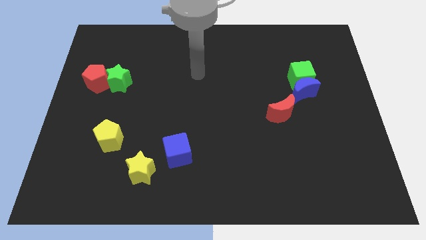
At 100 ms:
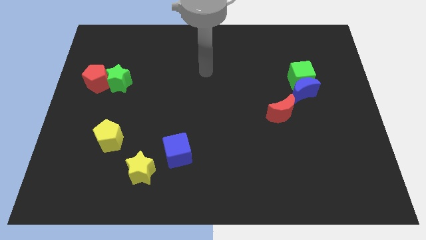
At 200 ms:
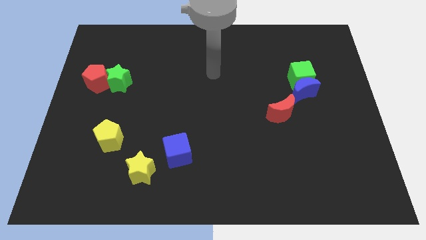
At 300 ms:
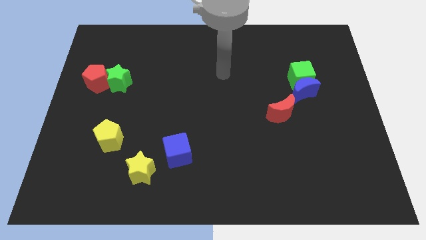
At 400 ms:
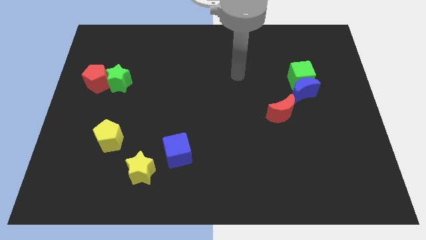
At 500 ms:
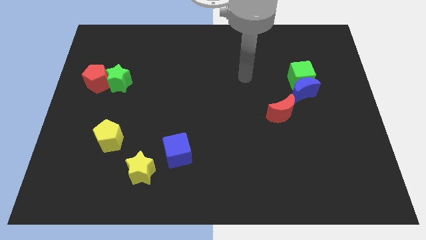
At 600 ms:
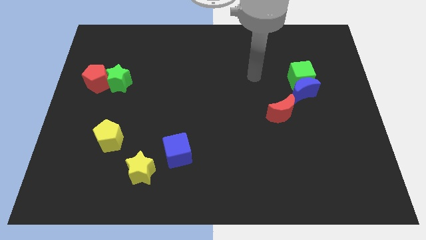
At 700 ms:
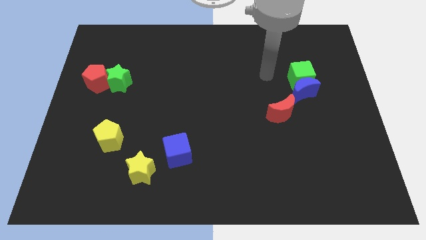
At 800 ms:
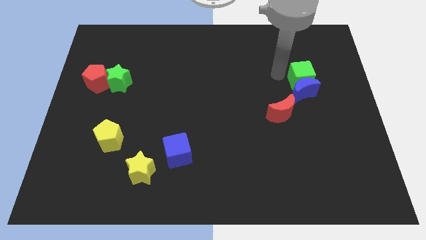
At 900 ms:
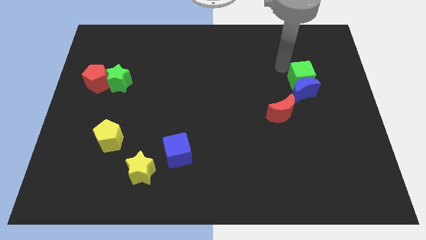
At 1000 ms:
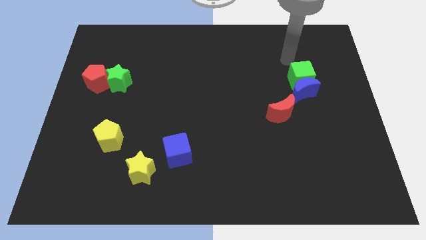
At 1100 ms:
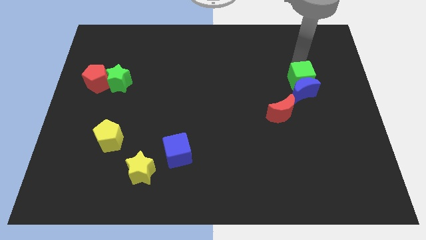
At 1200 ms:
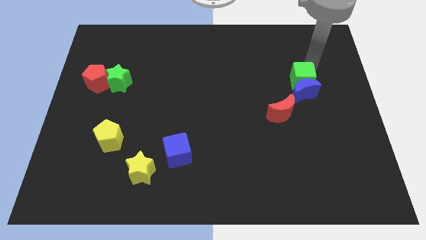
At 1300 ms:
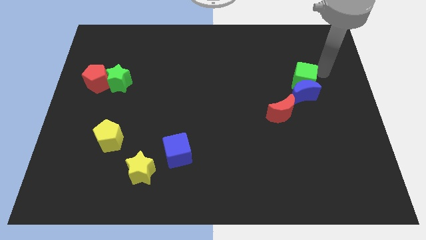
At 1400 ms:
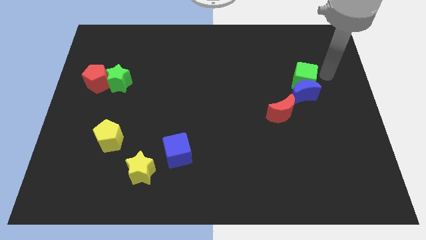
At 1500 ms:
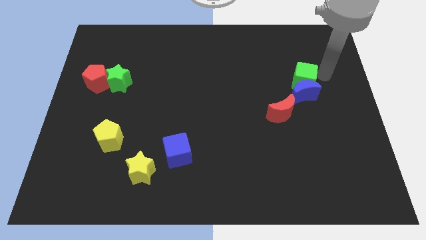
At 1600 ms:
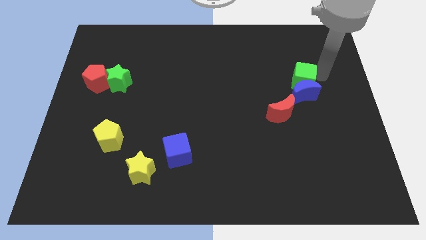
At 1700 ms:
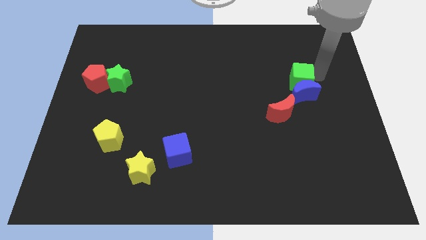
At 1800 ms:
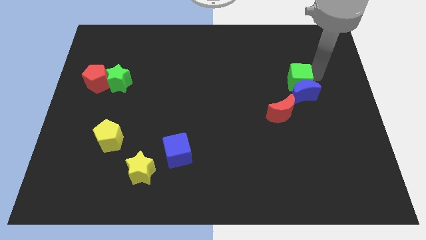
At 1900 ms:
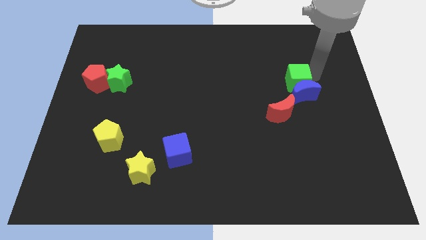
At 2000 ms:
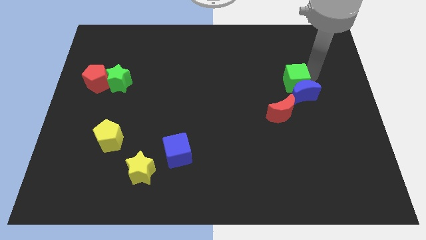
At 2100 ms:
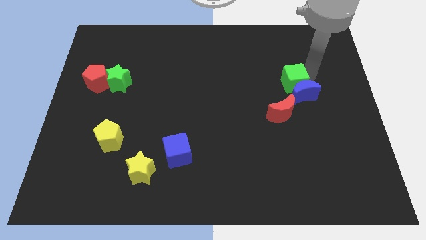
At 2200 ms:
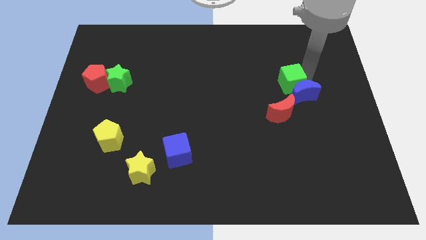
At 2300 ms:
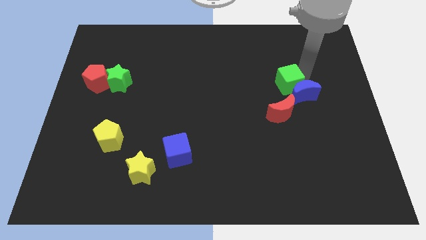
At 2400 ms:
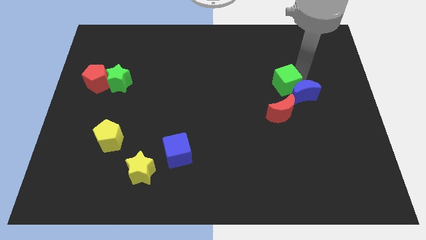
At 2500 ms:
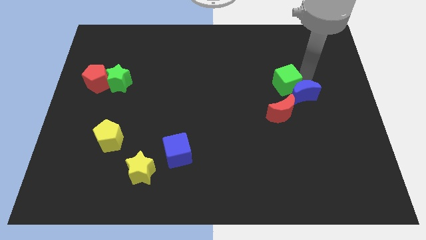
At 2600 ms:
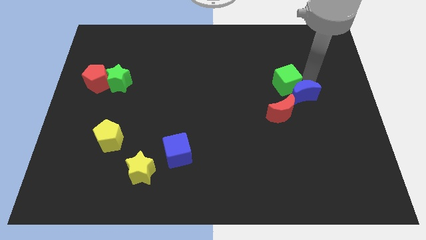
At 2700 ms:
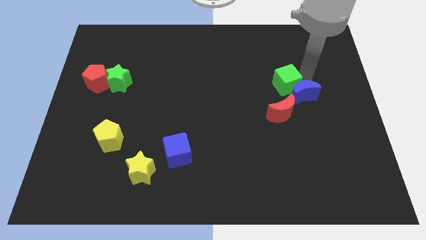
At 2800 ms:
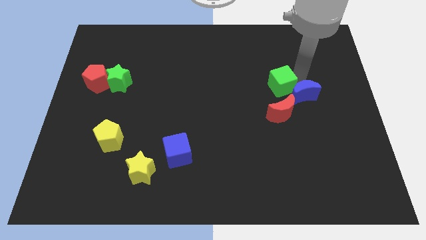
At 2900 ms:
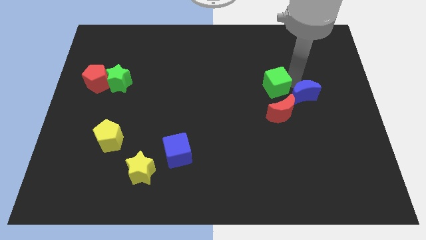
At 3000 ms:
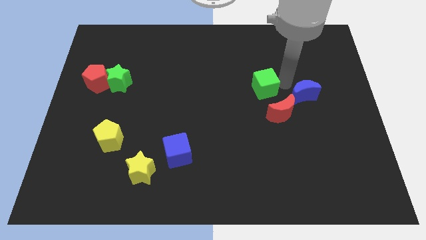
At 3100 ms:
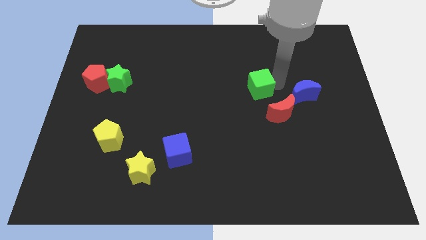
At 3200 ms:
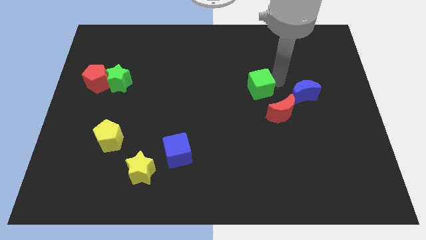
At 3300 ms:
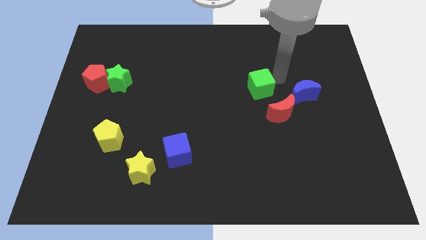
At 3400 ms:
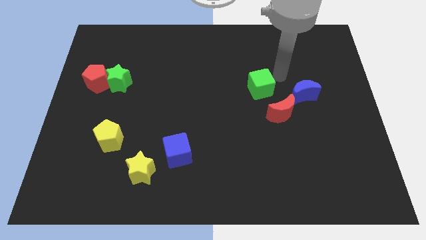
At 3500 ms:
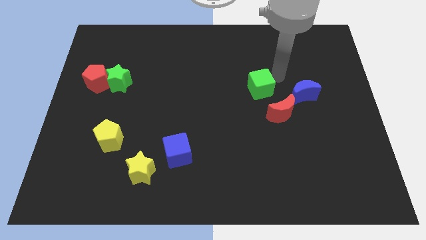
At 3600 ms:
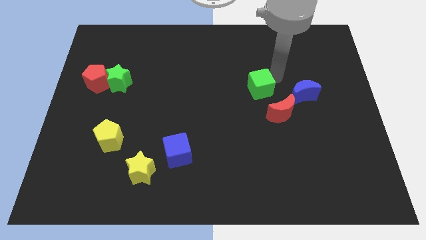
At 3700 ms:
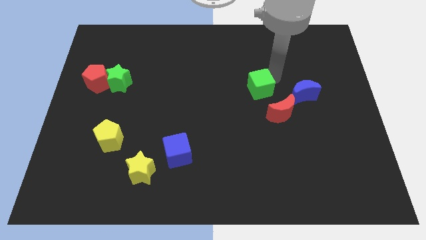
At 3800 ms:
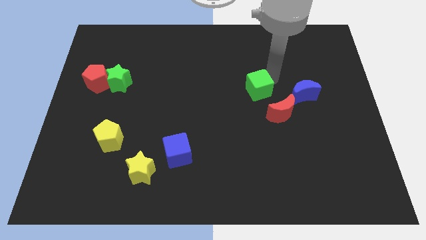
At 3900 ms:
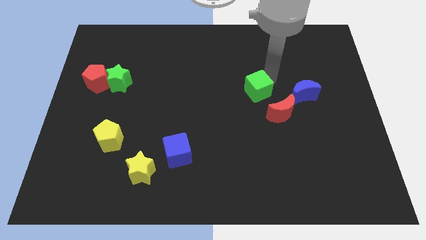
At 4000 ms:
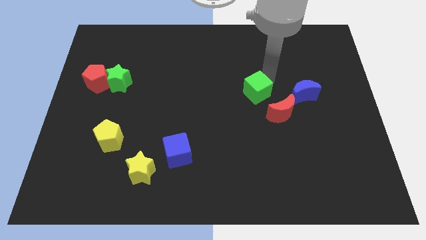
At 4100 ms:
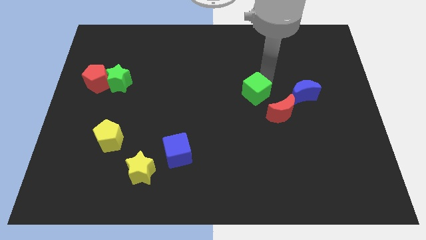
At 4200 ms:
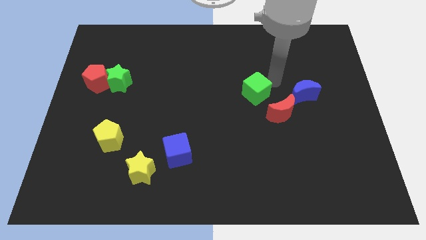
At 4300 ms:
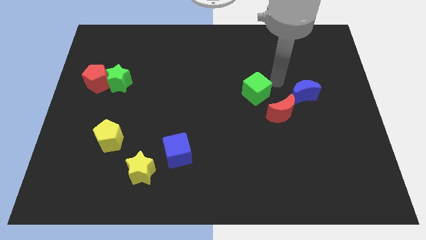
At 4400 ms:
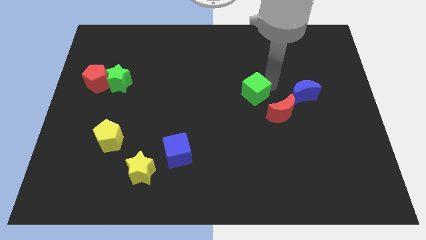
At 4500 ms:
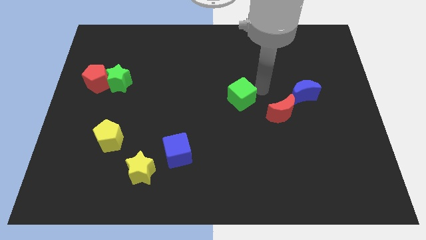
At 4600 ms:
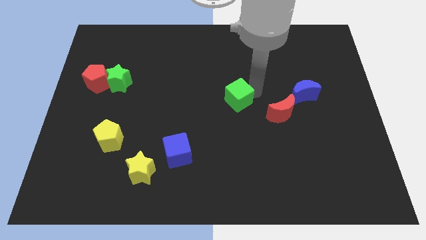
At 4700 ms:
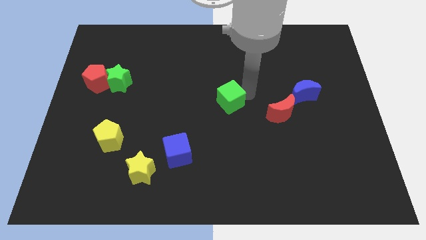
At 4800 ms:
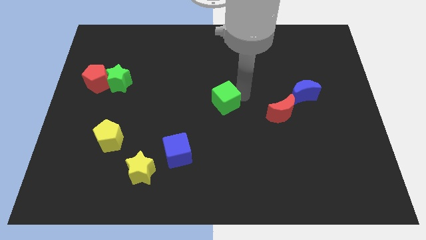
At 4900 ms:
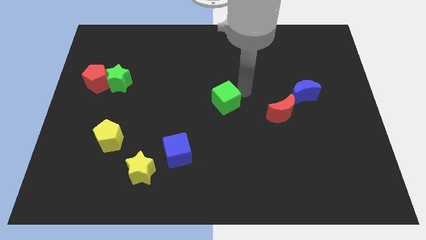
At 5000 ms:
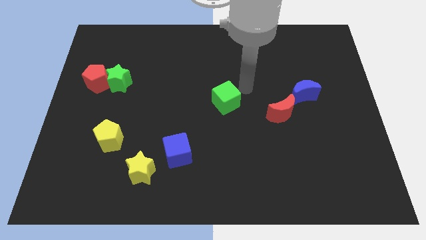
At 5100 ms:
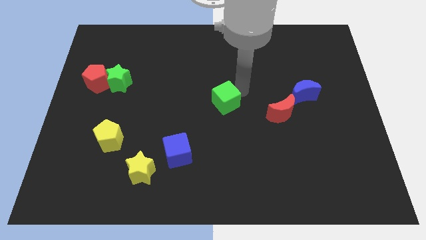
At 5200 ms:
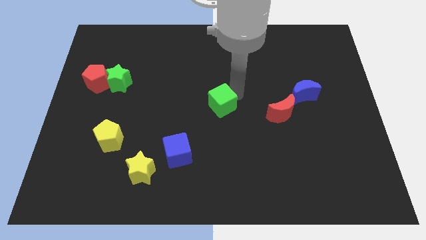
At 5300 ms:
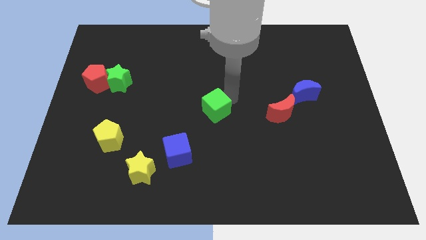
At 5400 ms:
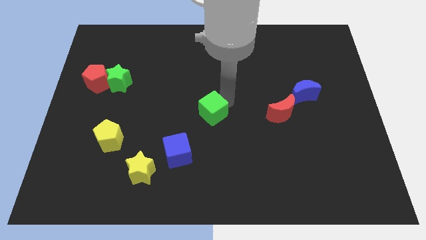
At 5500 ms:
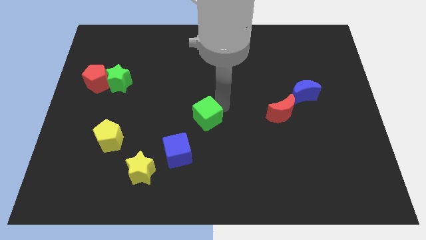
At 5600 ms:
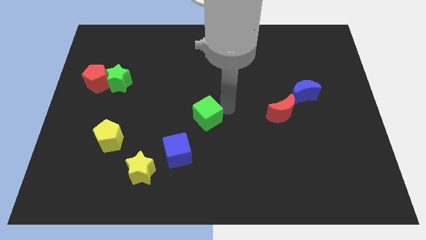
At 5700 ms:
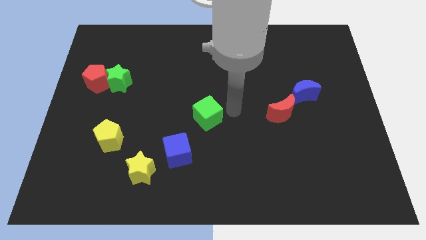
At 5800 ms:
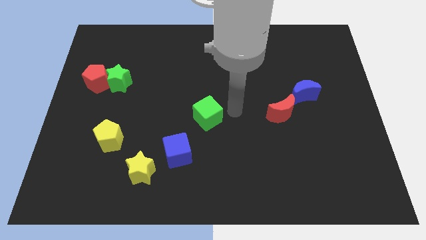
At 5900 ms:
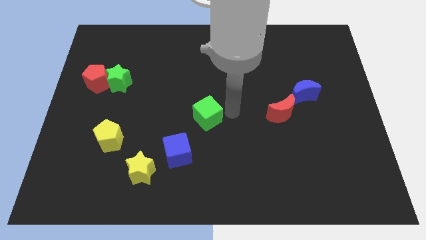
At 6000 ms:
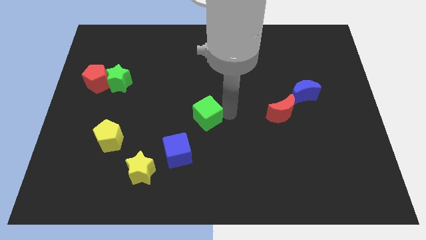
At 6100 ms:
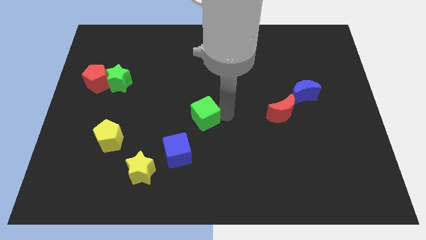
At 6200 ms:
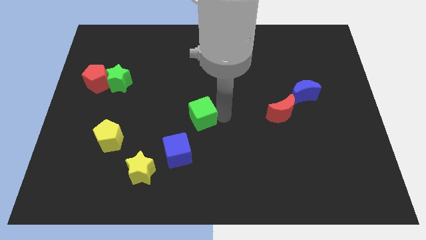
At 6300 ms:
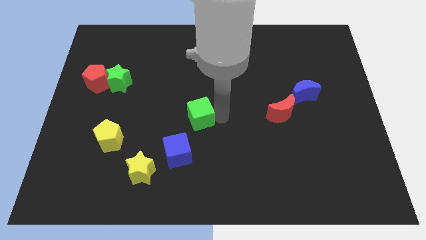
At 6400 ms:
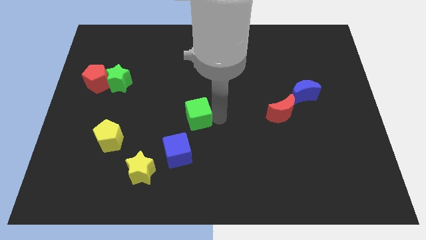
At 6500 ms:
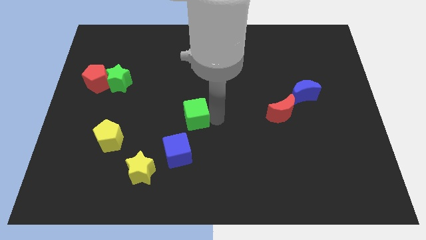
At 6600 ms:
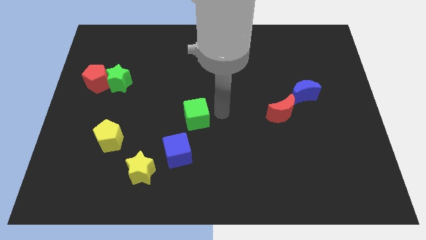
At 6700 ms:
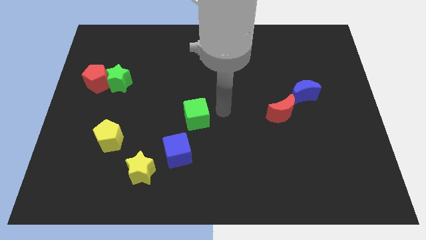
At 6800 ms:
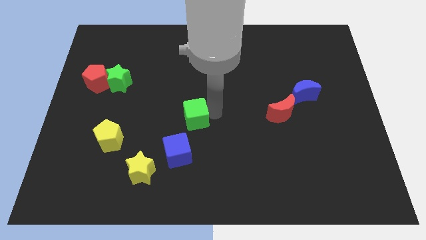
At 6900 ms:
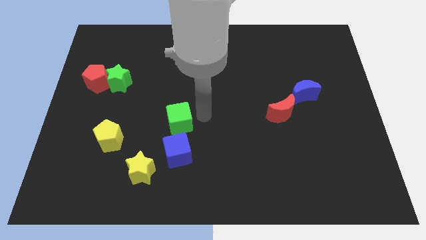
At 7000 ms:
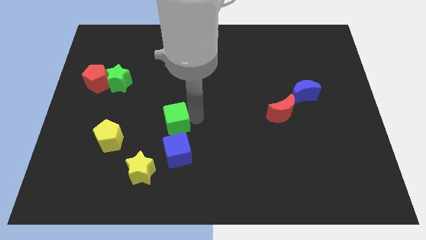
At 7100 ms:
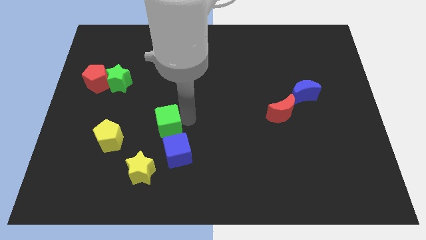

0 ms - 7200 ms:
push the green cube above the yellow star

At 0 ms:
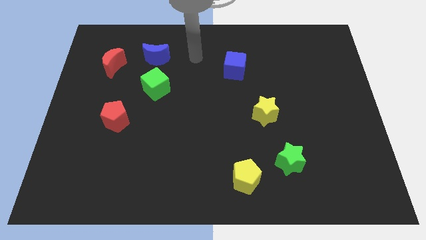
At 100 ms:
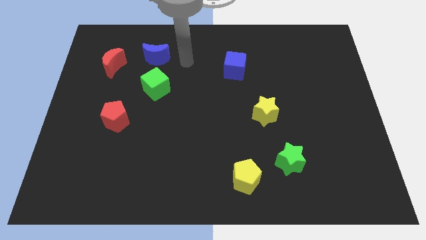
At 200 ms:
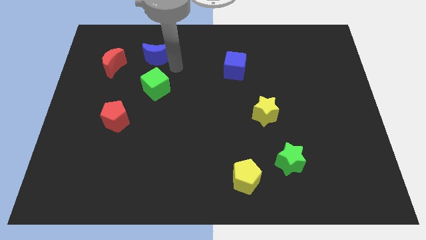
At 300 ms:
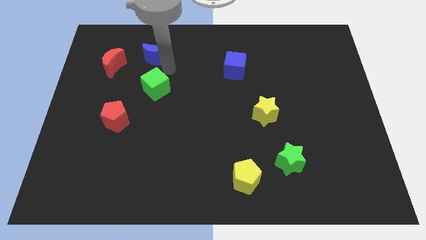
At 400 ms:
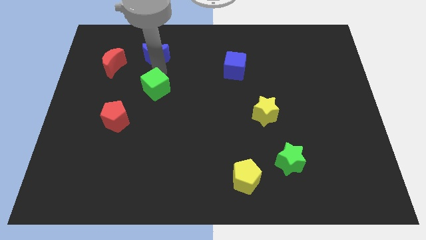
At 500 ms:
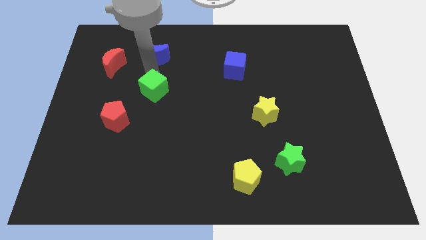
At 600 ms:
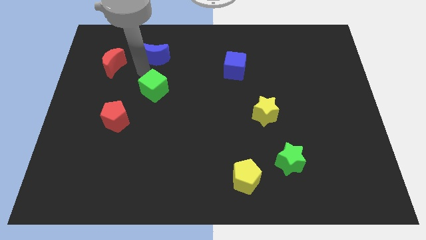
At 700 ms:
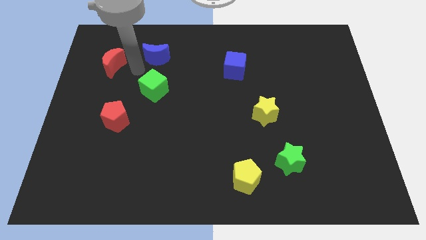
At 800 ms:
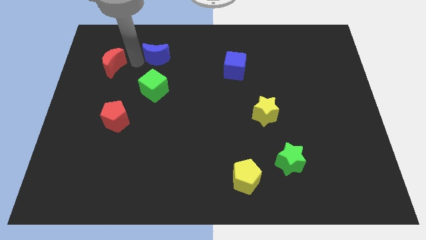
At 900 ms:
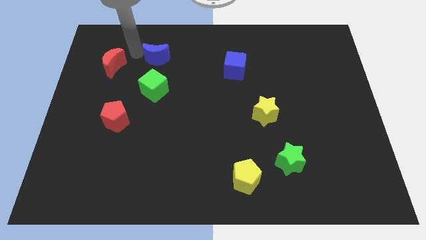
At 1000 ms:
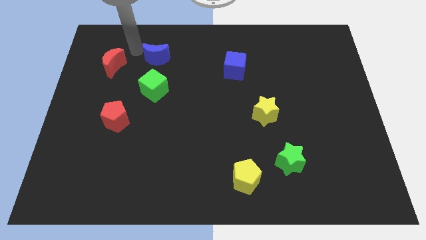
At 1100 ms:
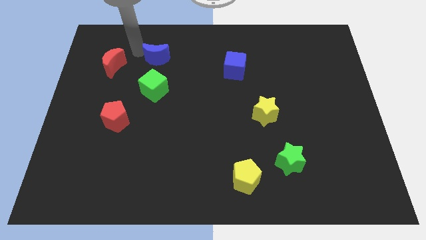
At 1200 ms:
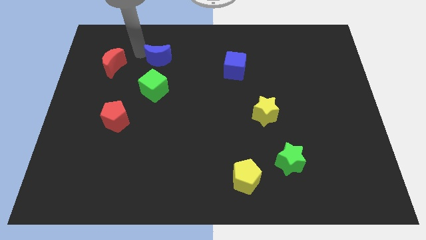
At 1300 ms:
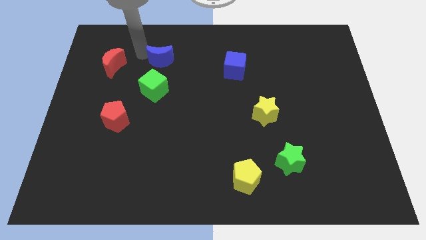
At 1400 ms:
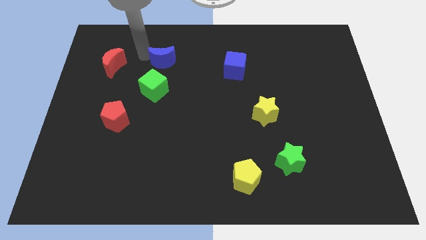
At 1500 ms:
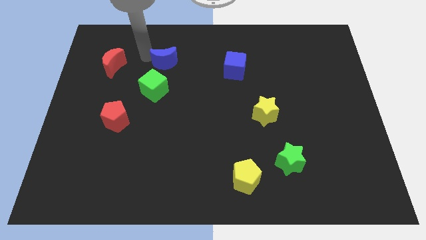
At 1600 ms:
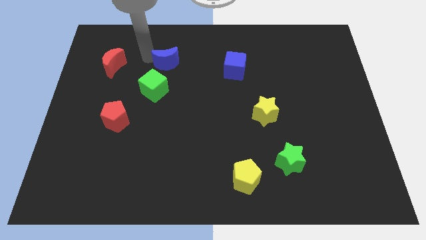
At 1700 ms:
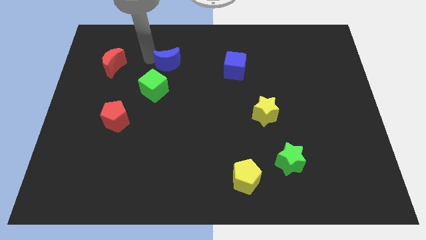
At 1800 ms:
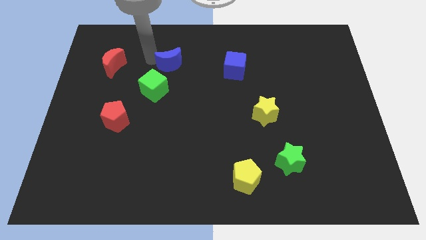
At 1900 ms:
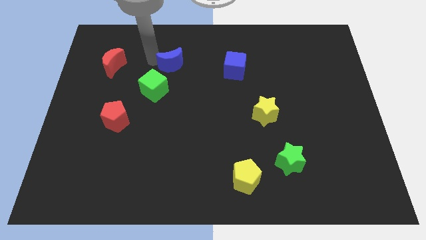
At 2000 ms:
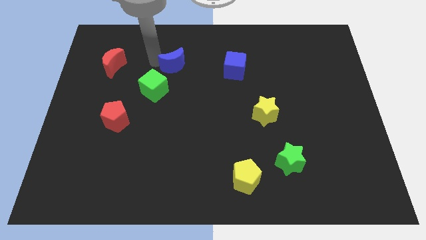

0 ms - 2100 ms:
move the blue moon to the left side of the blue cube
